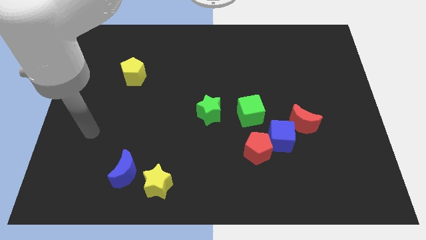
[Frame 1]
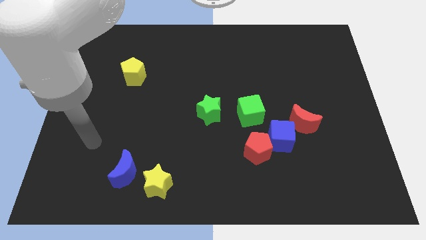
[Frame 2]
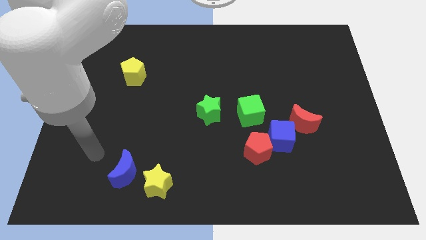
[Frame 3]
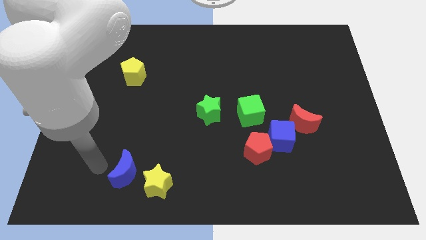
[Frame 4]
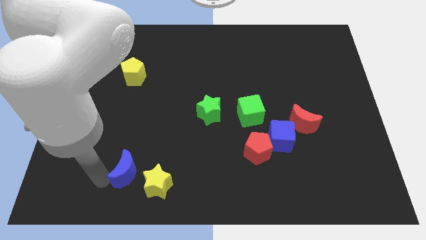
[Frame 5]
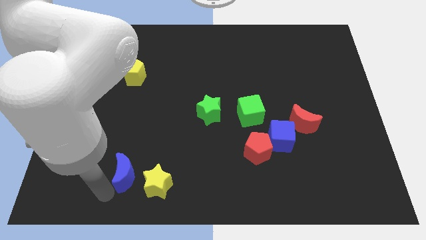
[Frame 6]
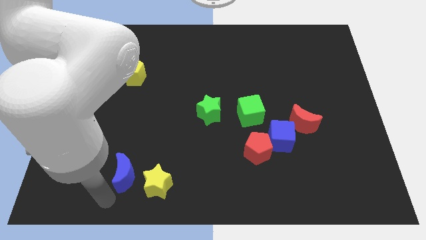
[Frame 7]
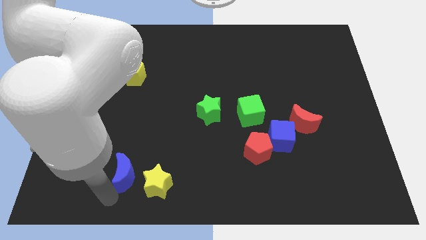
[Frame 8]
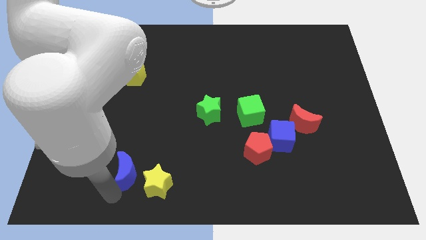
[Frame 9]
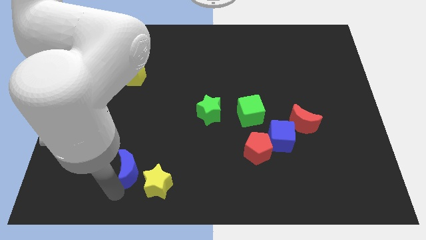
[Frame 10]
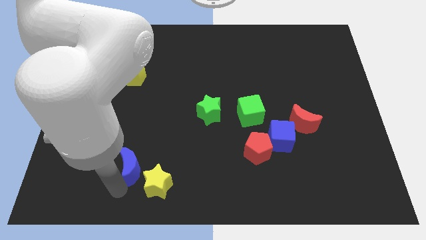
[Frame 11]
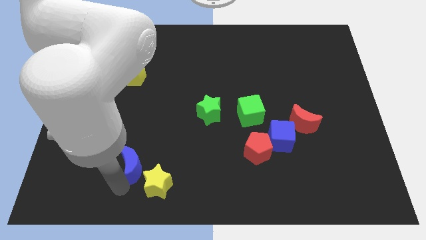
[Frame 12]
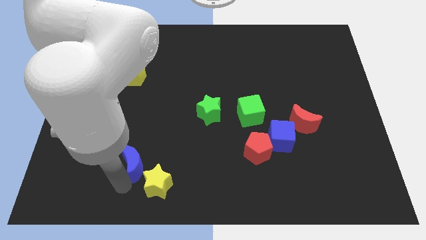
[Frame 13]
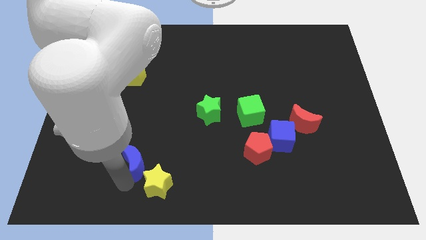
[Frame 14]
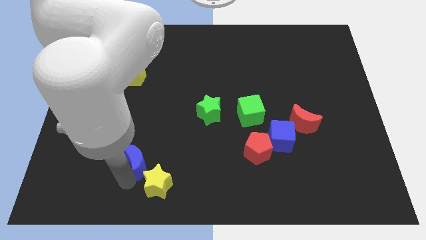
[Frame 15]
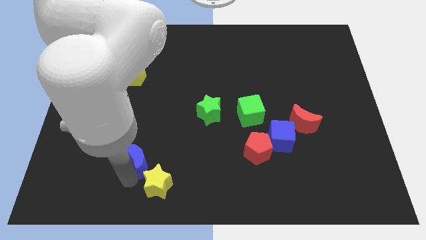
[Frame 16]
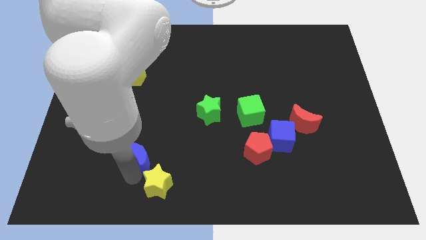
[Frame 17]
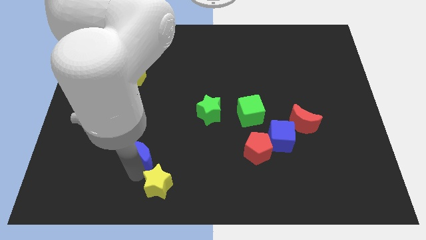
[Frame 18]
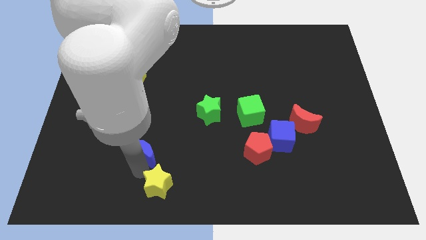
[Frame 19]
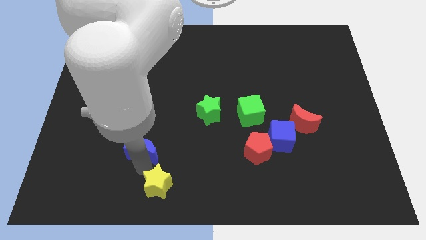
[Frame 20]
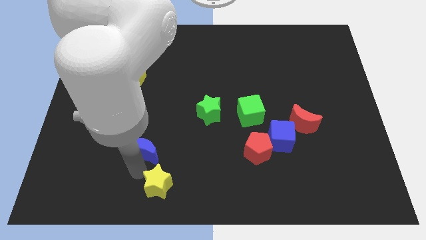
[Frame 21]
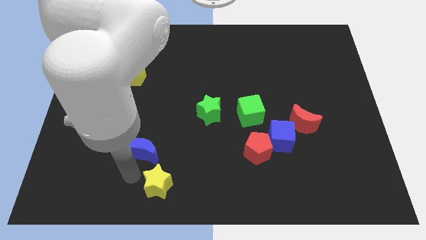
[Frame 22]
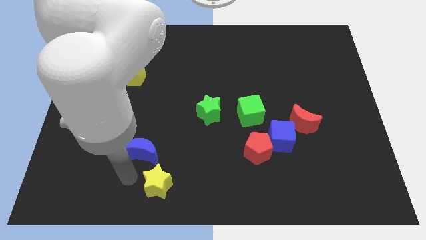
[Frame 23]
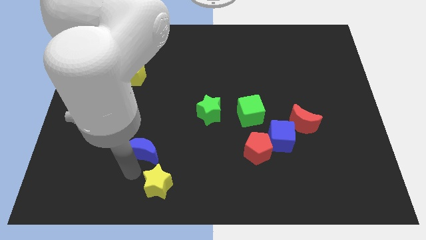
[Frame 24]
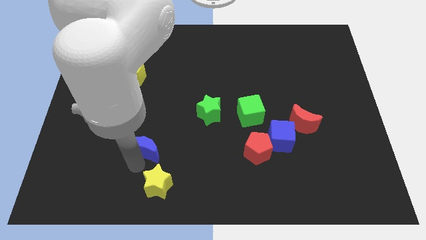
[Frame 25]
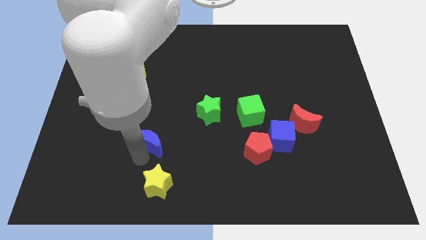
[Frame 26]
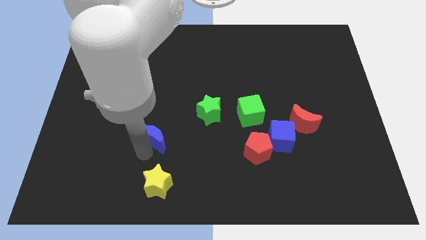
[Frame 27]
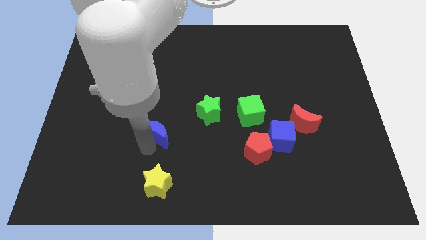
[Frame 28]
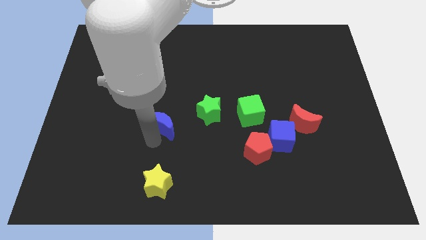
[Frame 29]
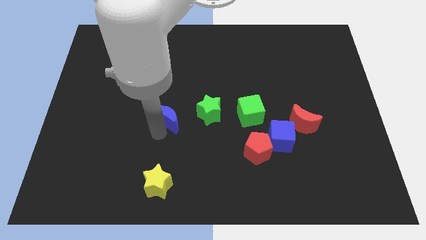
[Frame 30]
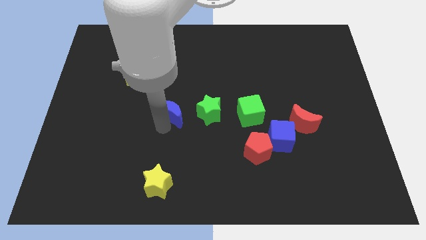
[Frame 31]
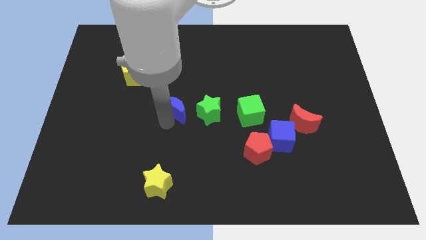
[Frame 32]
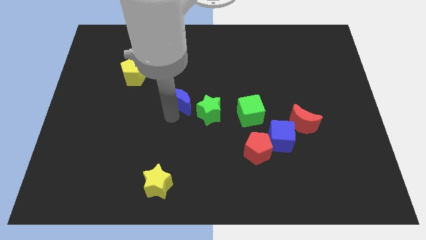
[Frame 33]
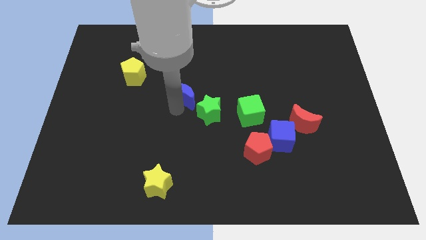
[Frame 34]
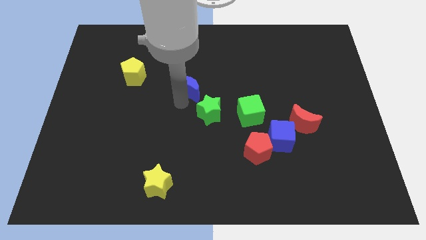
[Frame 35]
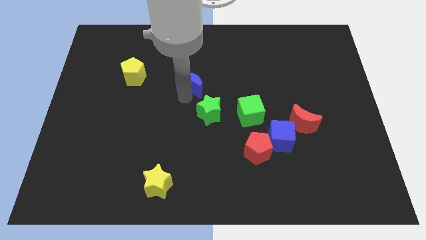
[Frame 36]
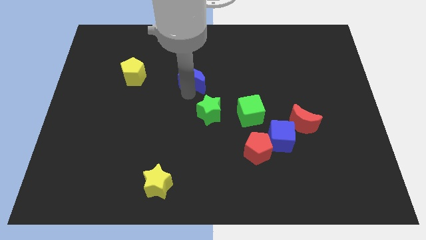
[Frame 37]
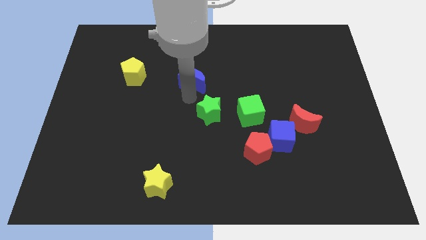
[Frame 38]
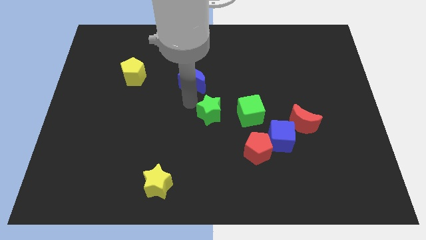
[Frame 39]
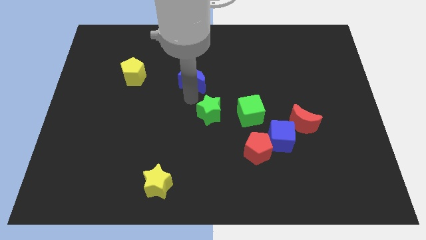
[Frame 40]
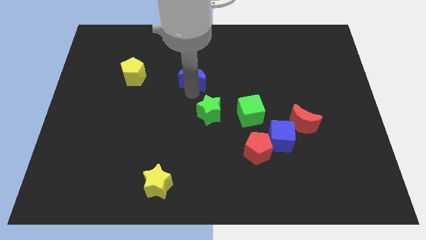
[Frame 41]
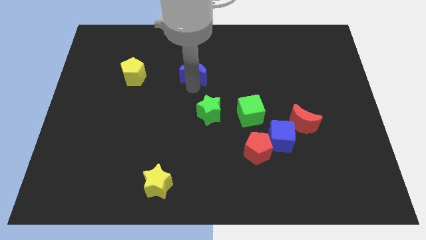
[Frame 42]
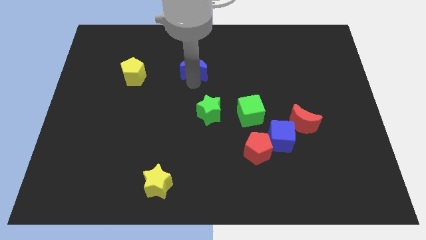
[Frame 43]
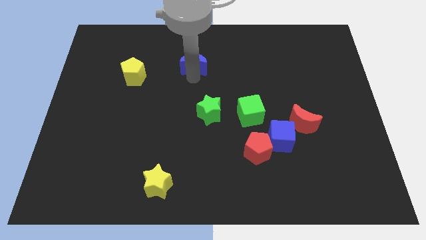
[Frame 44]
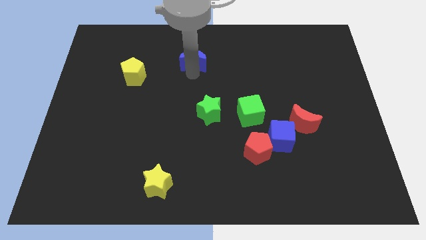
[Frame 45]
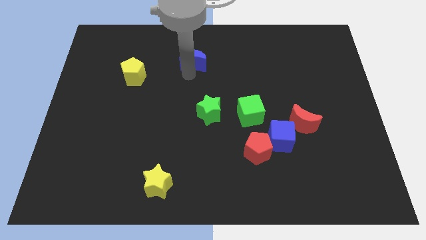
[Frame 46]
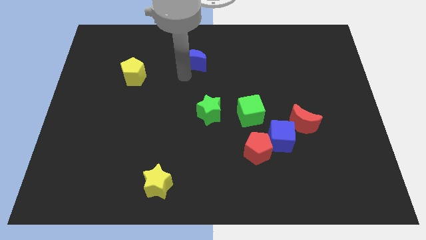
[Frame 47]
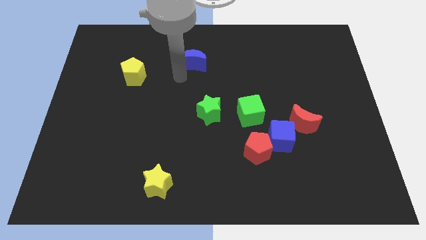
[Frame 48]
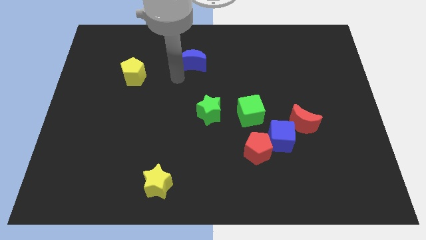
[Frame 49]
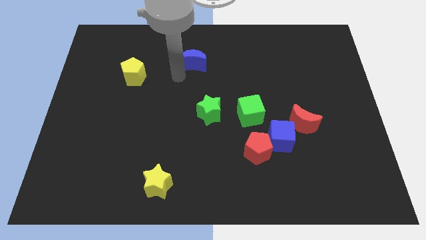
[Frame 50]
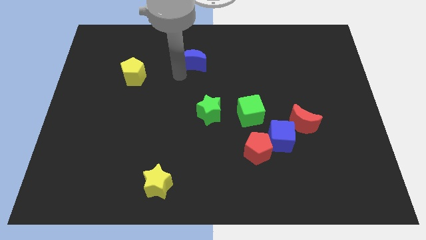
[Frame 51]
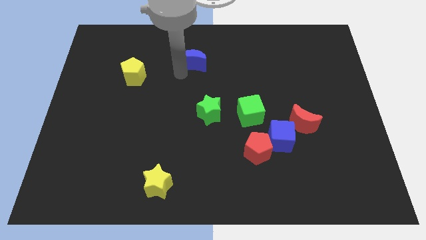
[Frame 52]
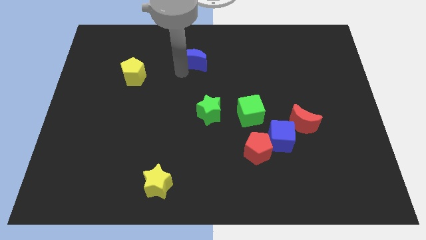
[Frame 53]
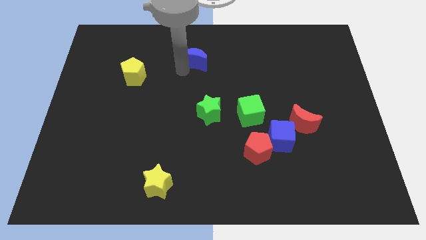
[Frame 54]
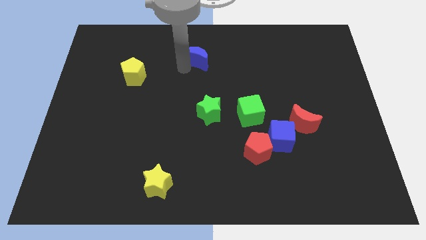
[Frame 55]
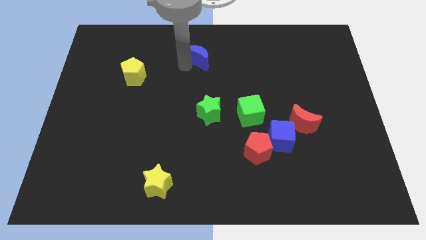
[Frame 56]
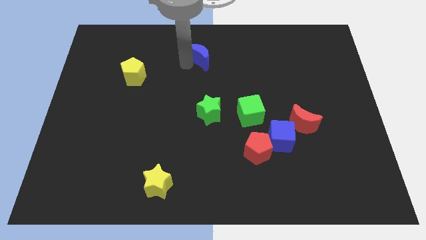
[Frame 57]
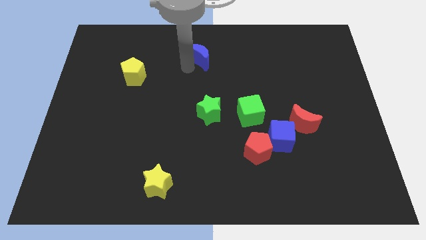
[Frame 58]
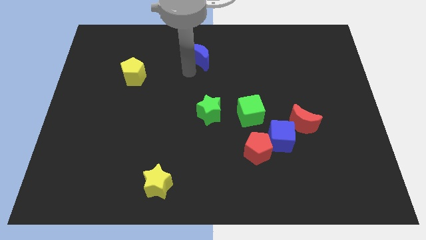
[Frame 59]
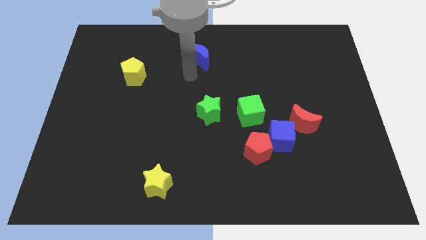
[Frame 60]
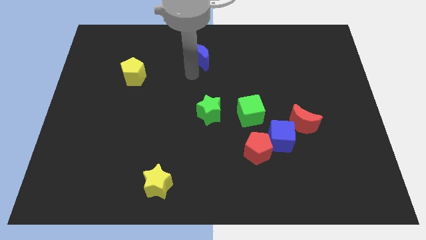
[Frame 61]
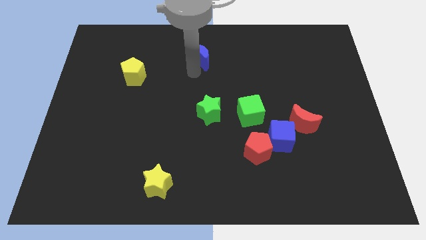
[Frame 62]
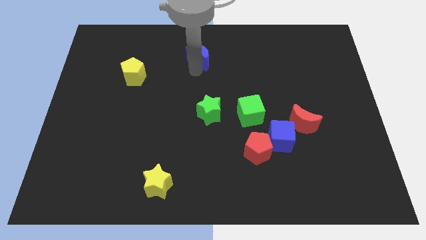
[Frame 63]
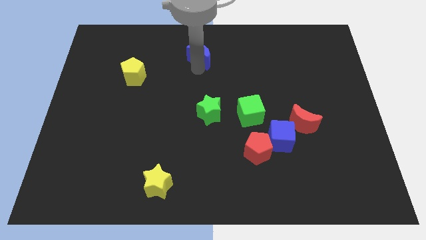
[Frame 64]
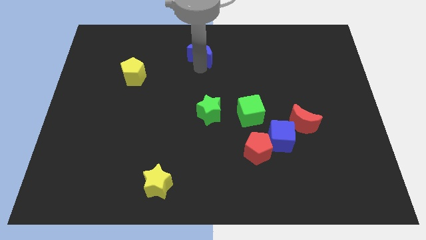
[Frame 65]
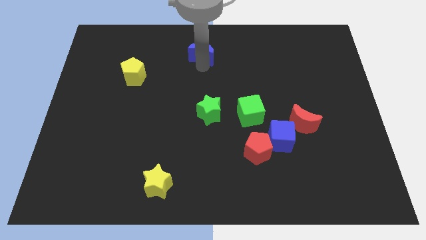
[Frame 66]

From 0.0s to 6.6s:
put the blue moon to the top side
